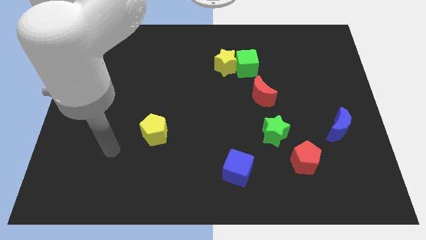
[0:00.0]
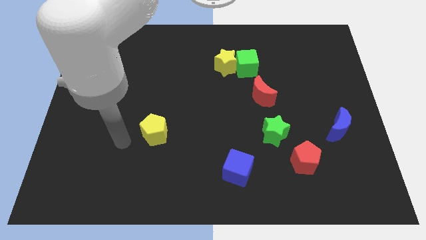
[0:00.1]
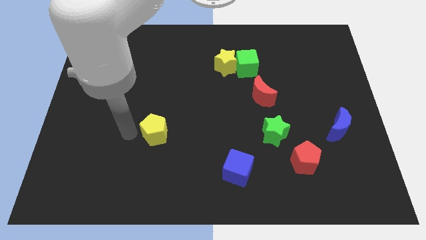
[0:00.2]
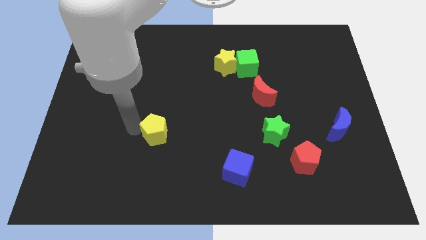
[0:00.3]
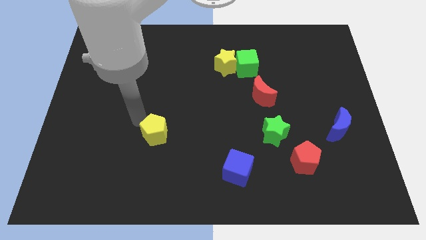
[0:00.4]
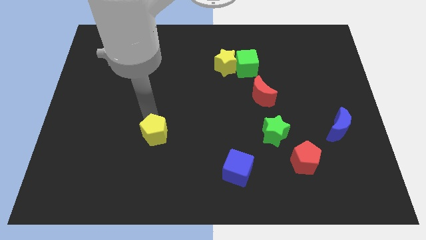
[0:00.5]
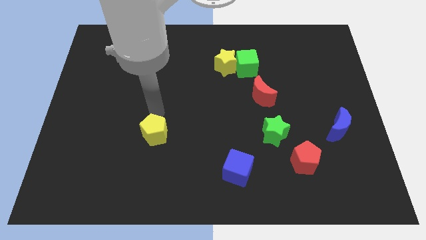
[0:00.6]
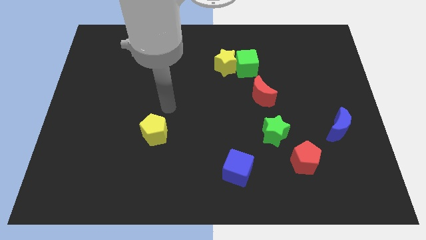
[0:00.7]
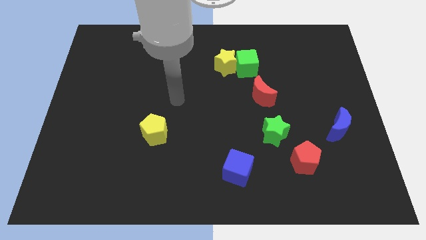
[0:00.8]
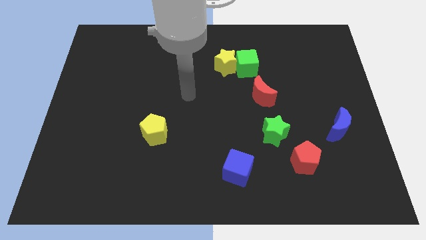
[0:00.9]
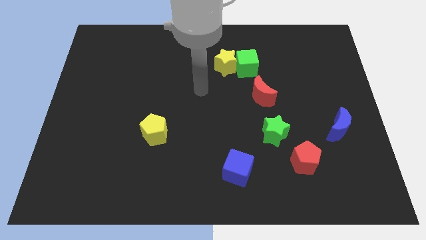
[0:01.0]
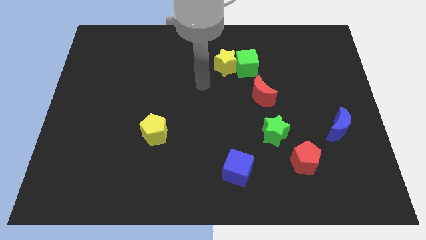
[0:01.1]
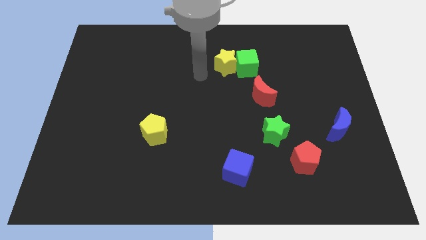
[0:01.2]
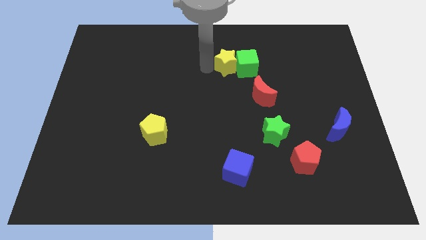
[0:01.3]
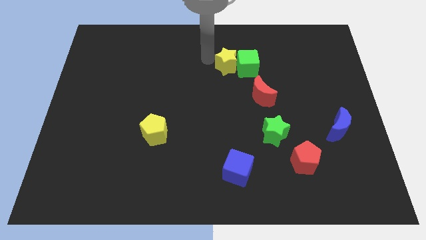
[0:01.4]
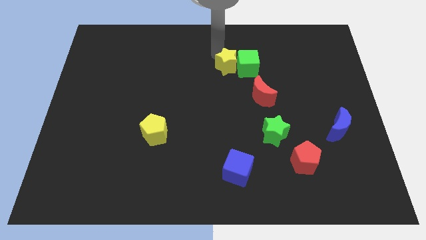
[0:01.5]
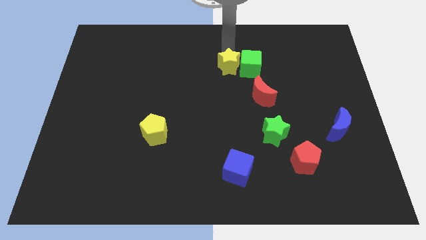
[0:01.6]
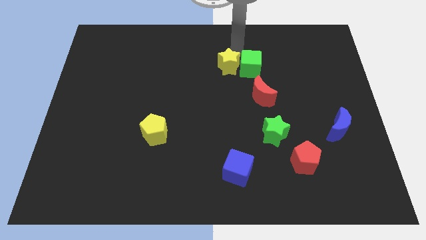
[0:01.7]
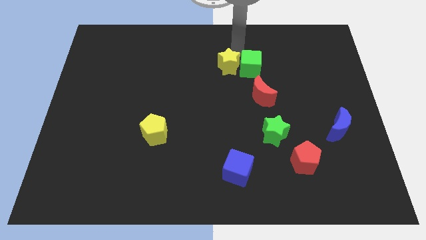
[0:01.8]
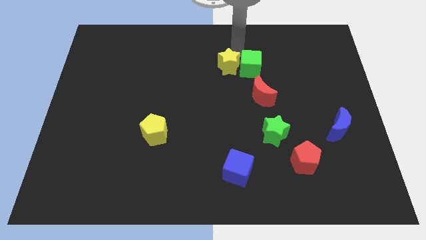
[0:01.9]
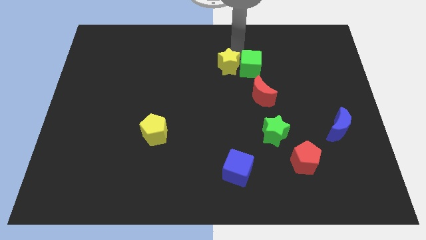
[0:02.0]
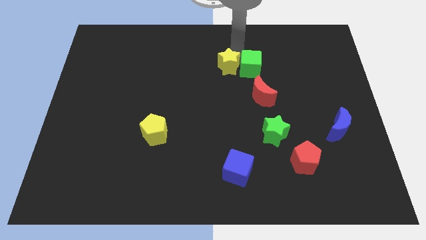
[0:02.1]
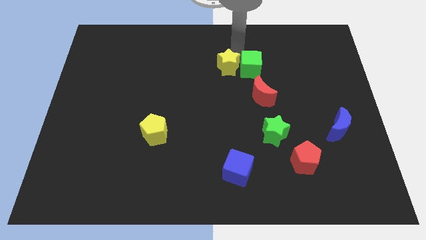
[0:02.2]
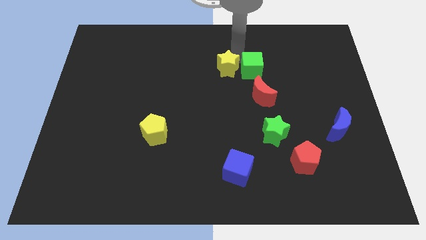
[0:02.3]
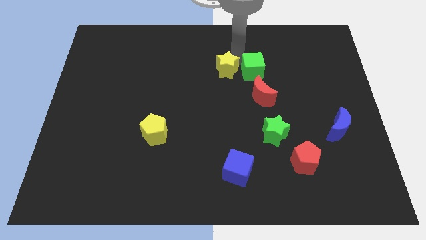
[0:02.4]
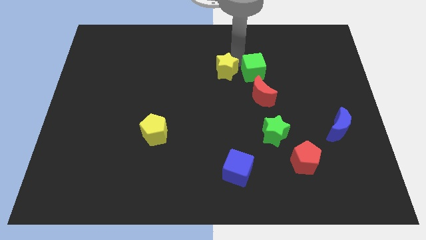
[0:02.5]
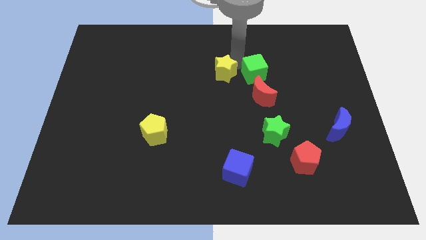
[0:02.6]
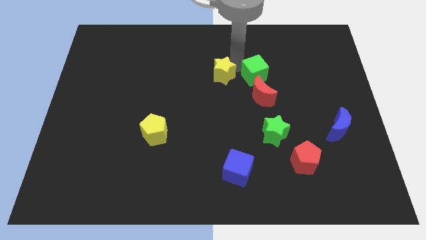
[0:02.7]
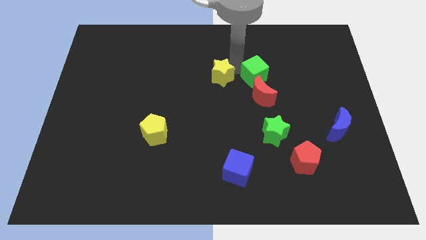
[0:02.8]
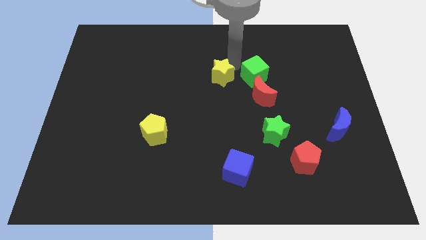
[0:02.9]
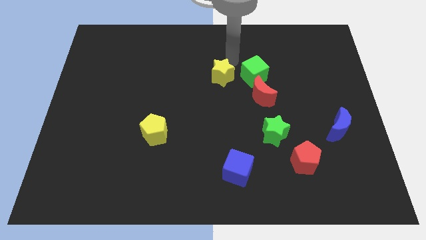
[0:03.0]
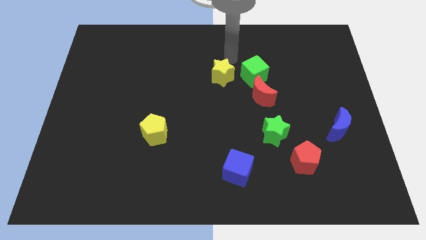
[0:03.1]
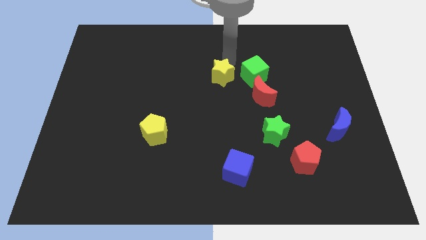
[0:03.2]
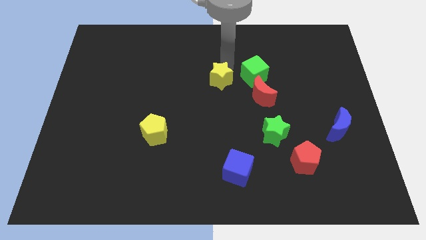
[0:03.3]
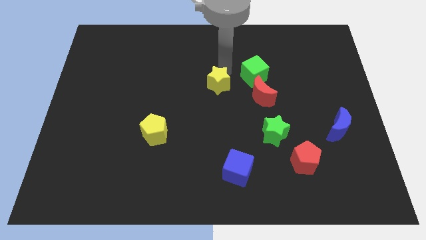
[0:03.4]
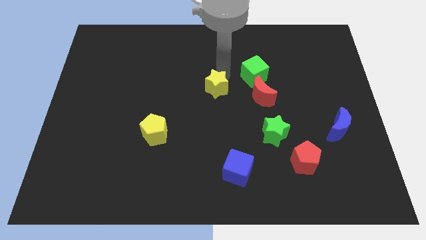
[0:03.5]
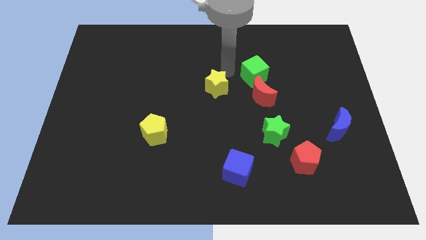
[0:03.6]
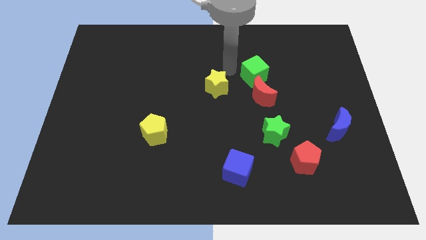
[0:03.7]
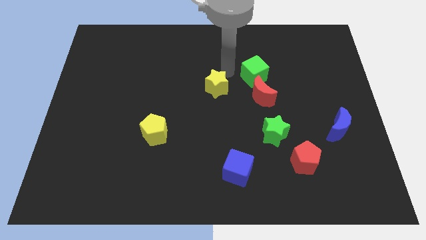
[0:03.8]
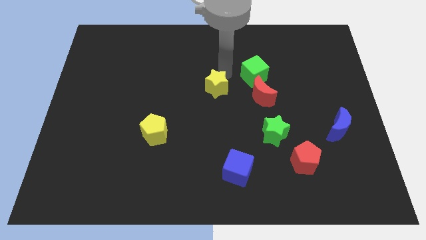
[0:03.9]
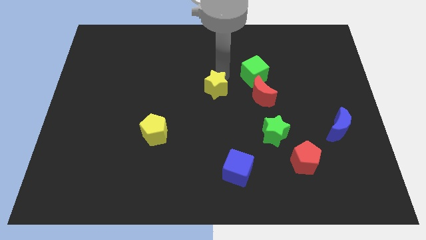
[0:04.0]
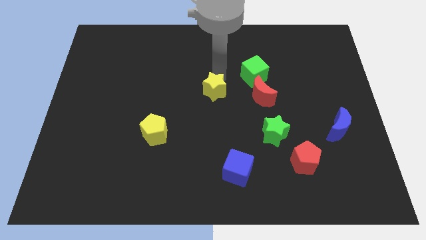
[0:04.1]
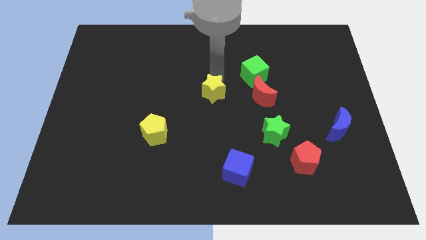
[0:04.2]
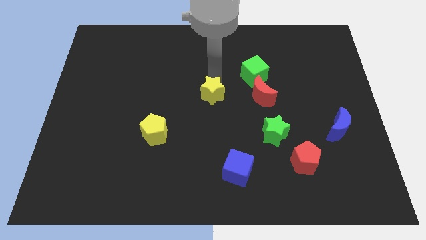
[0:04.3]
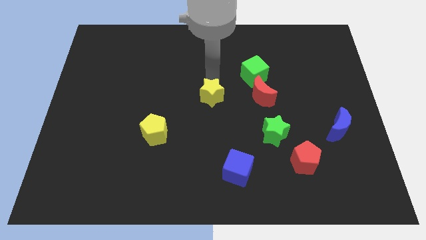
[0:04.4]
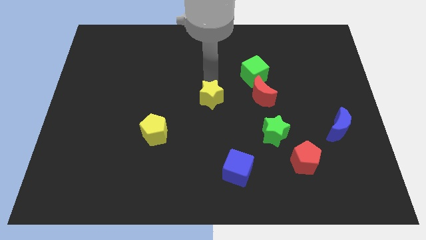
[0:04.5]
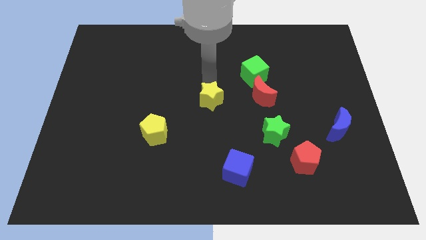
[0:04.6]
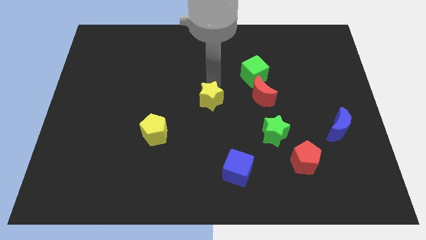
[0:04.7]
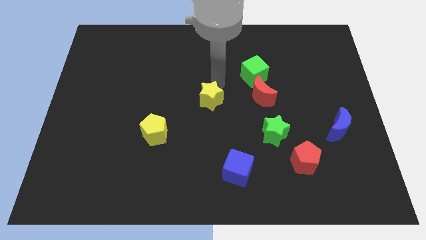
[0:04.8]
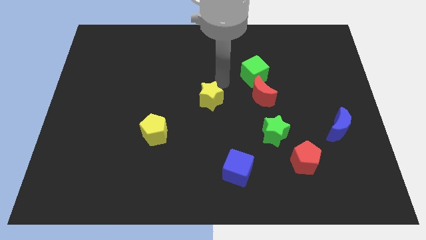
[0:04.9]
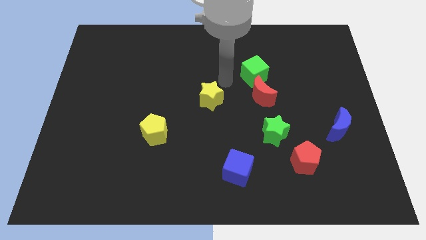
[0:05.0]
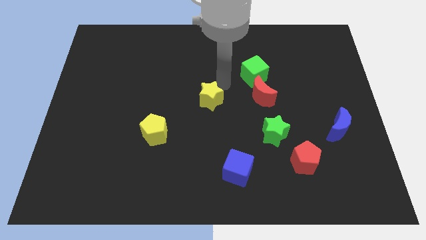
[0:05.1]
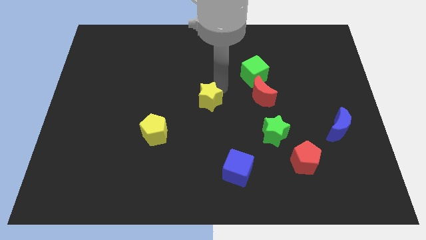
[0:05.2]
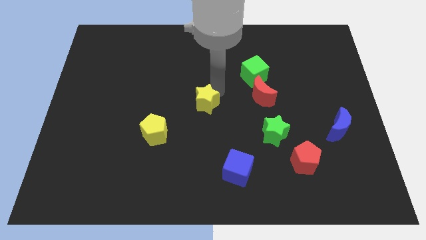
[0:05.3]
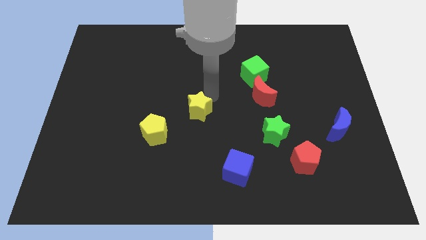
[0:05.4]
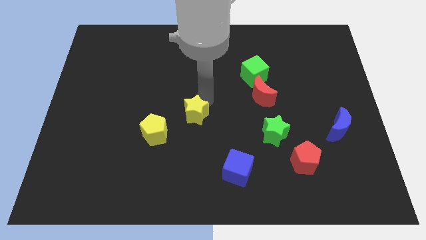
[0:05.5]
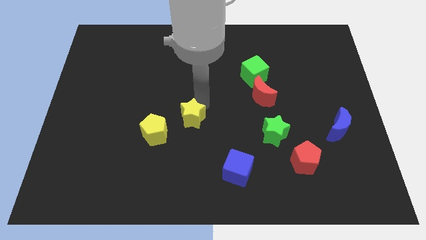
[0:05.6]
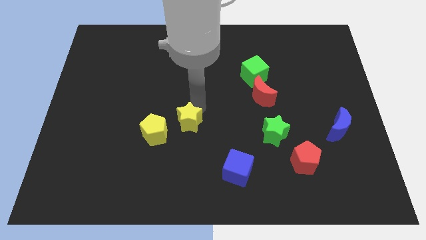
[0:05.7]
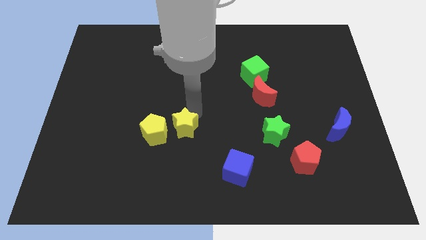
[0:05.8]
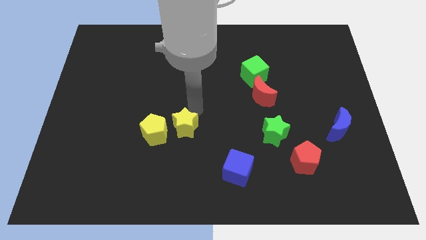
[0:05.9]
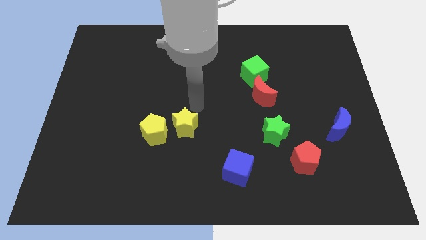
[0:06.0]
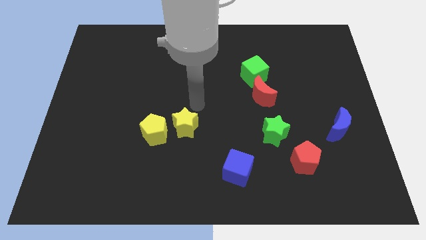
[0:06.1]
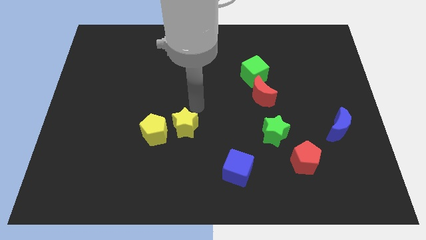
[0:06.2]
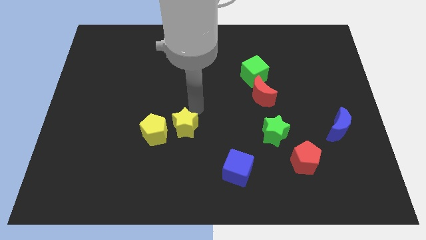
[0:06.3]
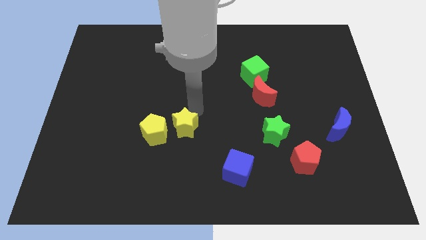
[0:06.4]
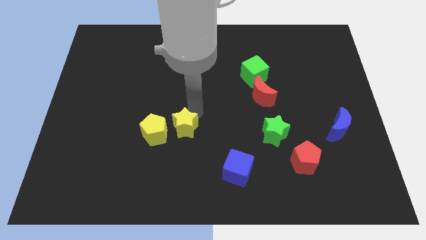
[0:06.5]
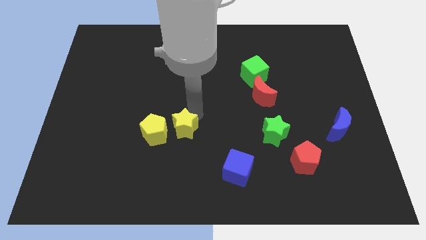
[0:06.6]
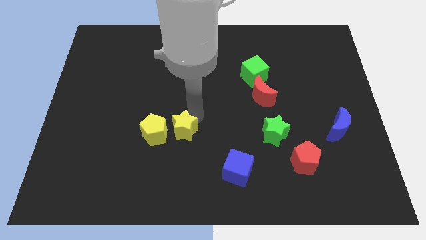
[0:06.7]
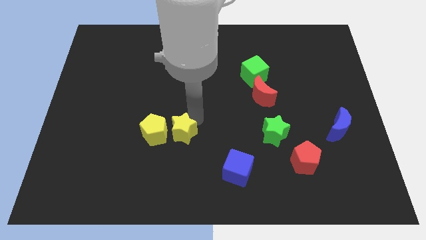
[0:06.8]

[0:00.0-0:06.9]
put the yellow star to the bottom right of the yellow pentagon

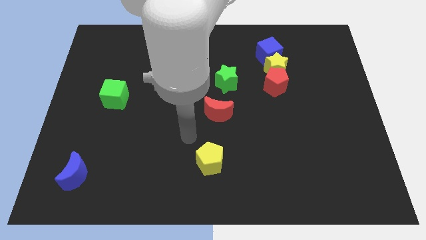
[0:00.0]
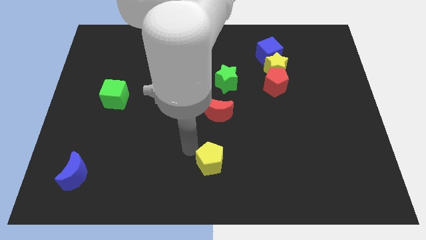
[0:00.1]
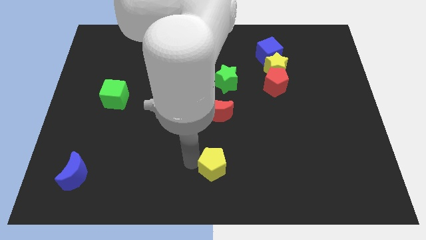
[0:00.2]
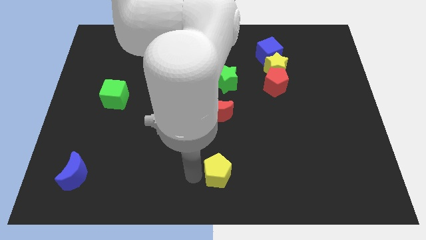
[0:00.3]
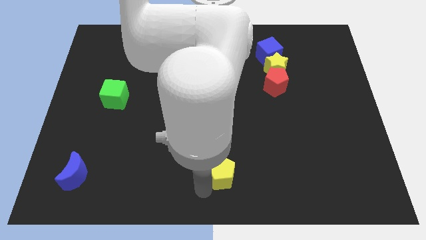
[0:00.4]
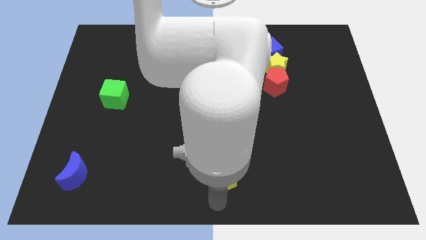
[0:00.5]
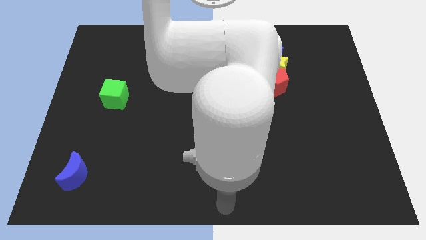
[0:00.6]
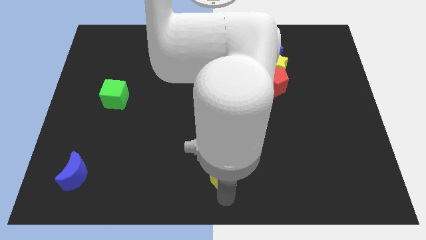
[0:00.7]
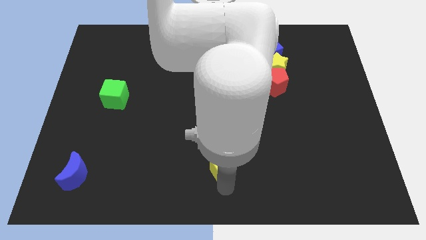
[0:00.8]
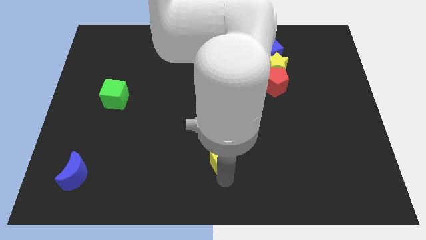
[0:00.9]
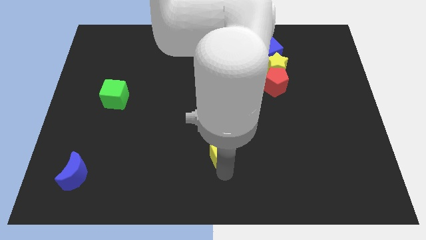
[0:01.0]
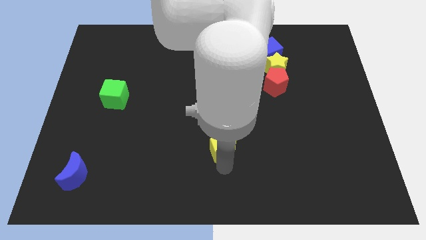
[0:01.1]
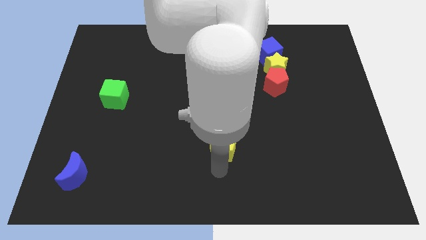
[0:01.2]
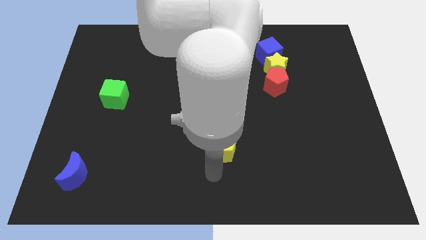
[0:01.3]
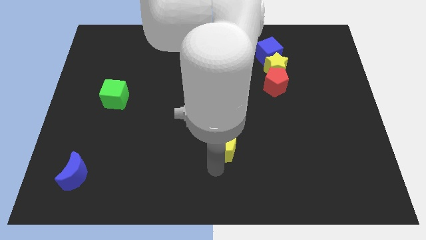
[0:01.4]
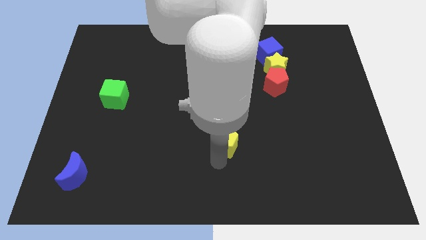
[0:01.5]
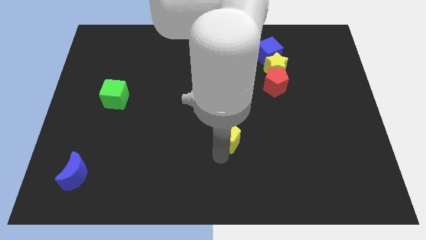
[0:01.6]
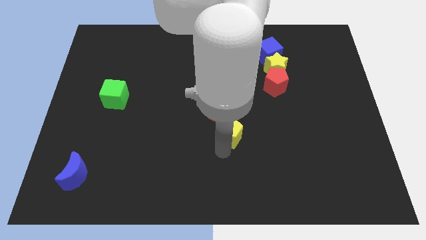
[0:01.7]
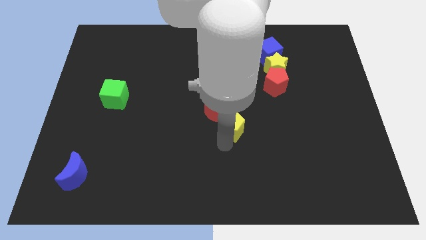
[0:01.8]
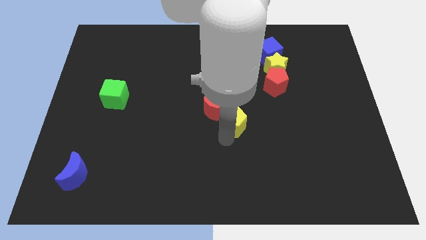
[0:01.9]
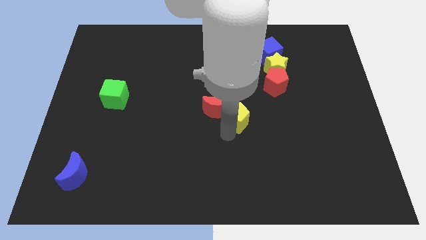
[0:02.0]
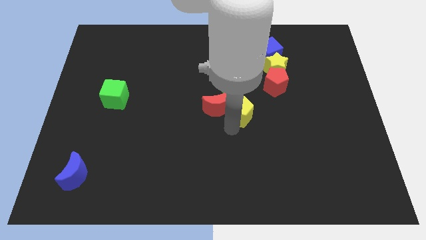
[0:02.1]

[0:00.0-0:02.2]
move the yellow pentagon diagonally down and to the right of the green star
